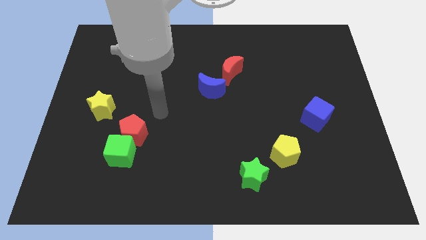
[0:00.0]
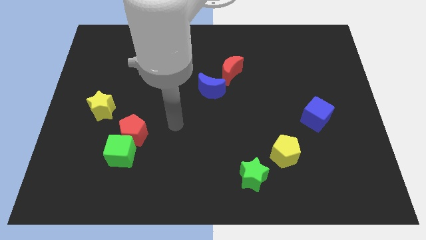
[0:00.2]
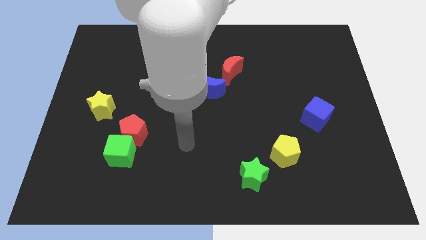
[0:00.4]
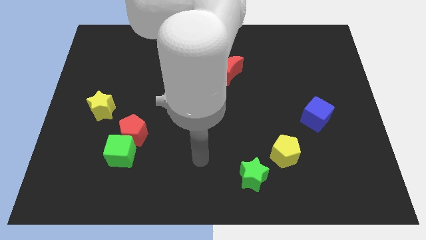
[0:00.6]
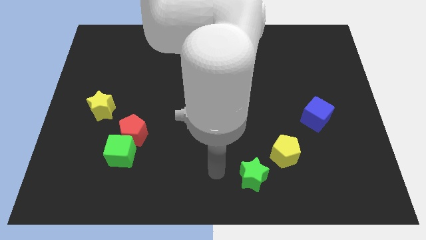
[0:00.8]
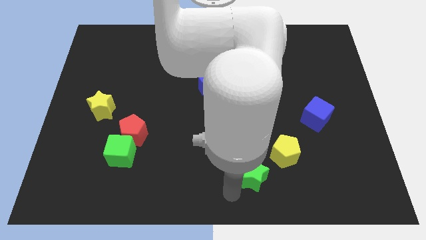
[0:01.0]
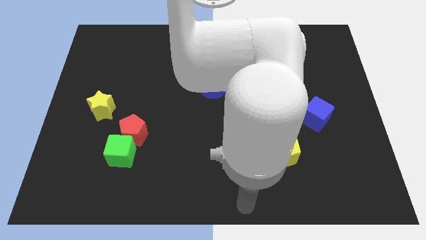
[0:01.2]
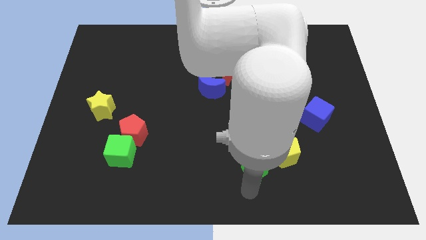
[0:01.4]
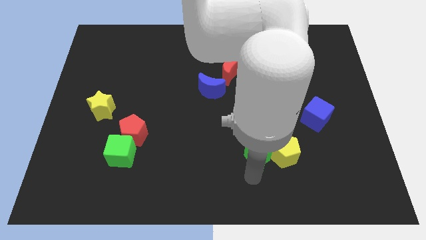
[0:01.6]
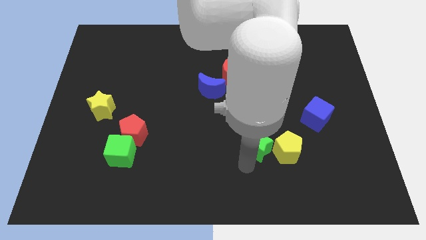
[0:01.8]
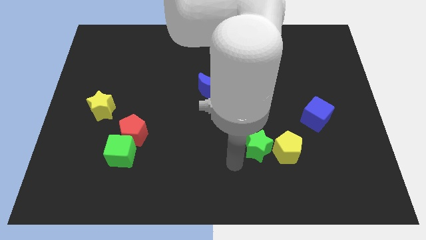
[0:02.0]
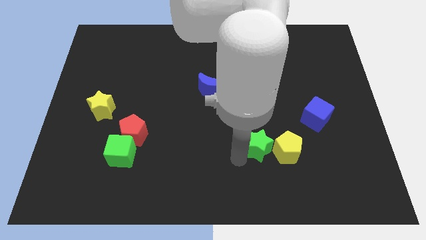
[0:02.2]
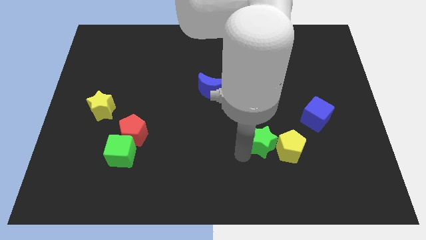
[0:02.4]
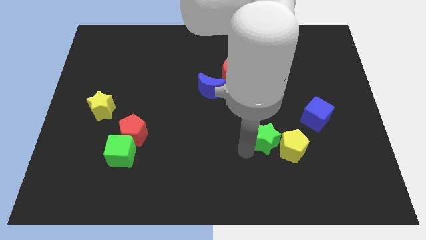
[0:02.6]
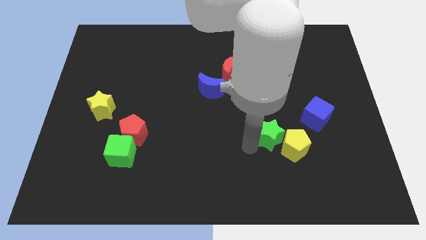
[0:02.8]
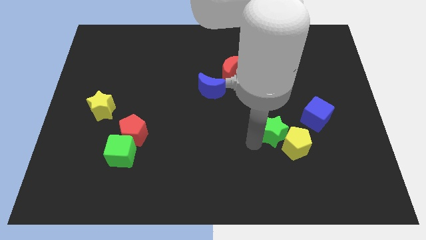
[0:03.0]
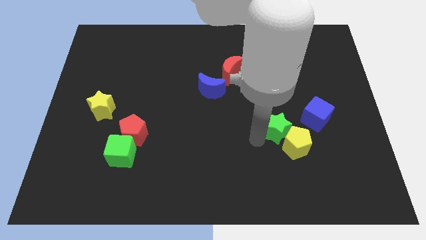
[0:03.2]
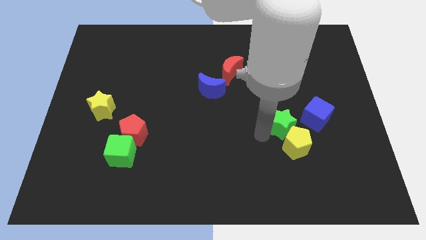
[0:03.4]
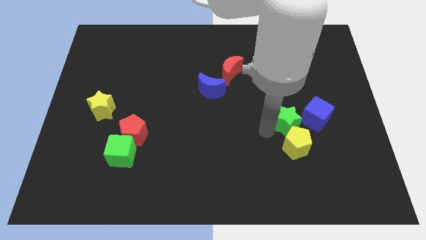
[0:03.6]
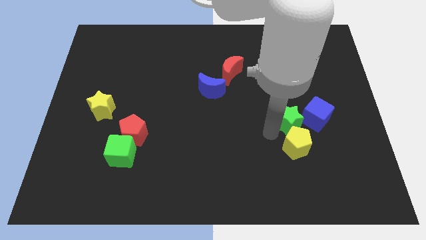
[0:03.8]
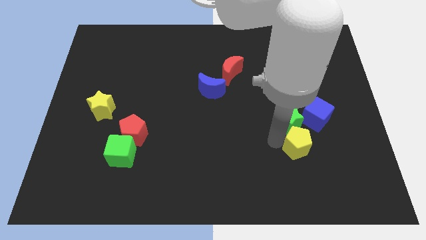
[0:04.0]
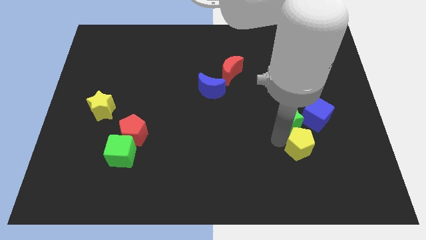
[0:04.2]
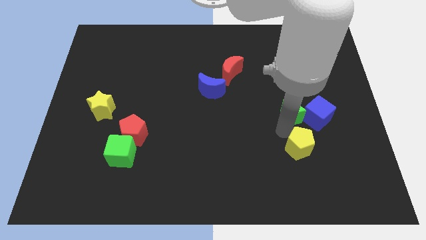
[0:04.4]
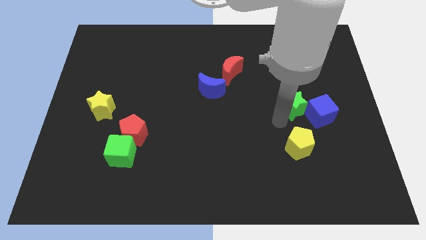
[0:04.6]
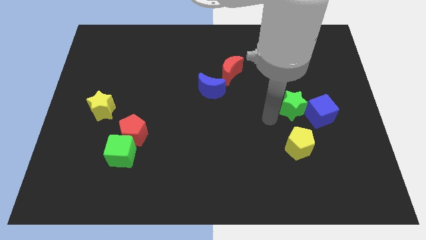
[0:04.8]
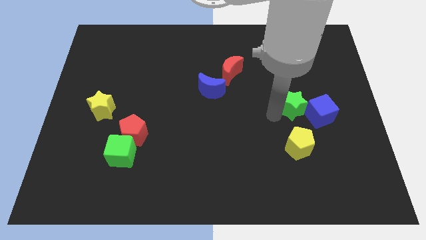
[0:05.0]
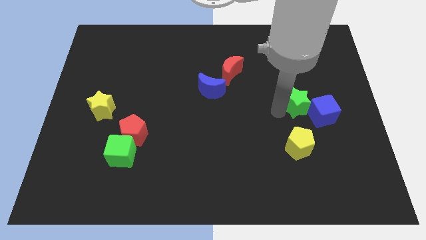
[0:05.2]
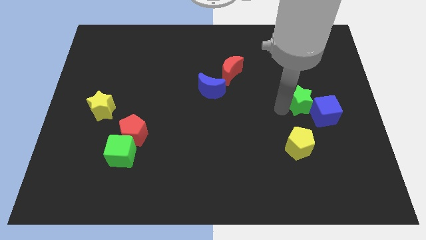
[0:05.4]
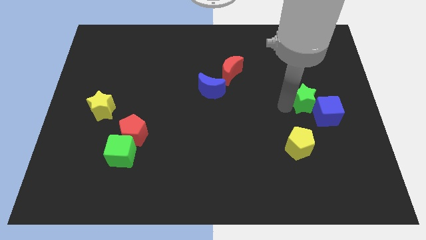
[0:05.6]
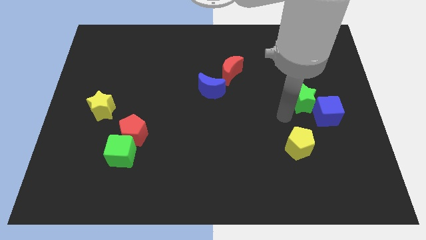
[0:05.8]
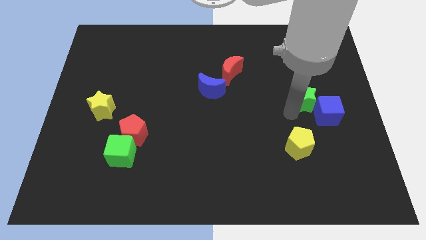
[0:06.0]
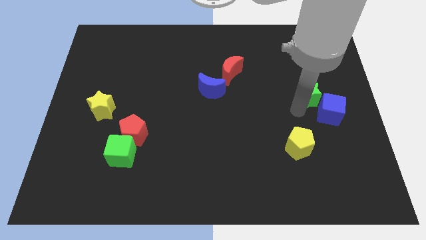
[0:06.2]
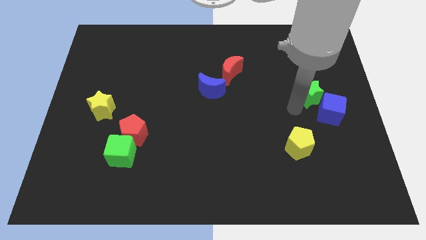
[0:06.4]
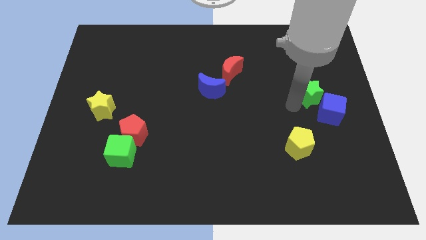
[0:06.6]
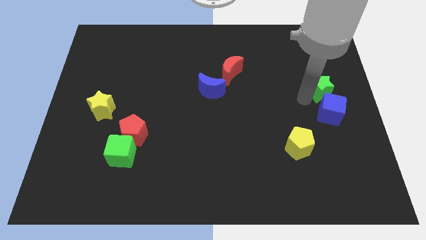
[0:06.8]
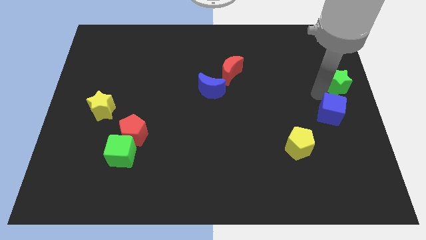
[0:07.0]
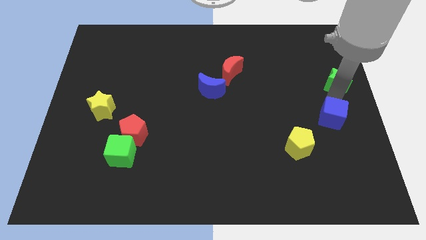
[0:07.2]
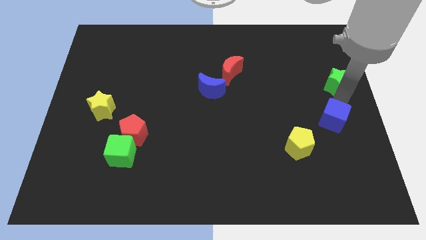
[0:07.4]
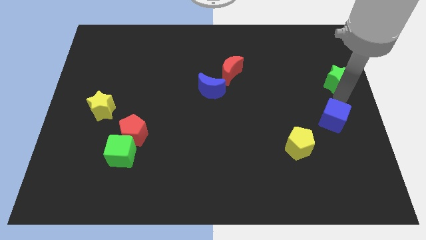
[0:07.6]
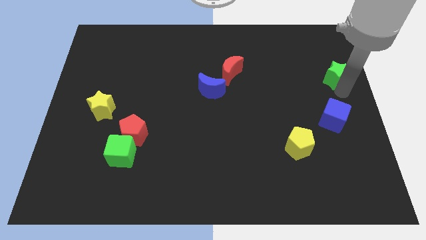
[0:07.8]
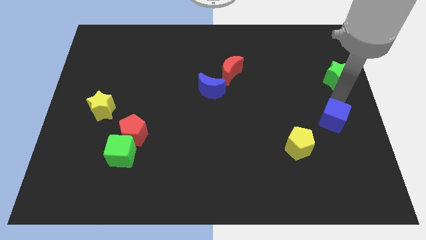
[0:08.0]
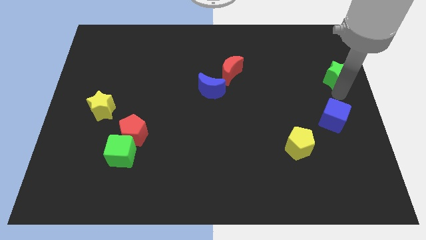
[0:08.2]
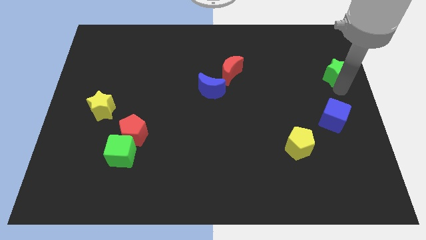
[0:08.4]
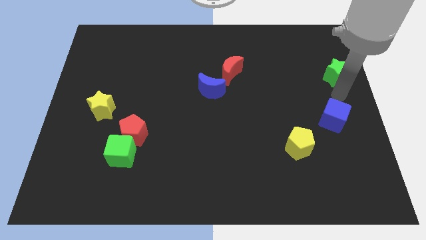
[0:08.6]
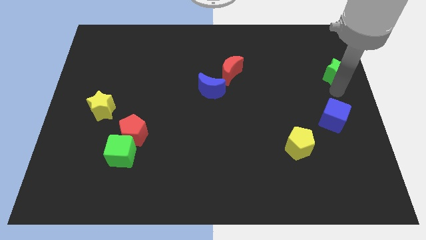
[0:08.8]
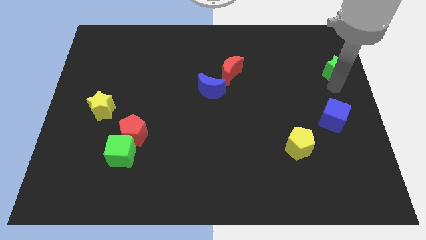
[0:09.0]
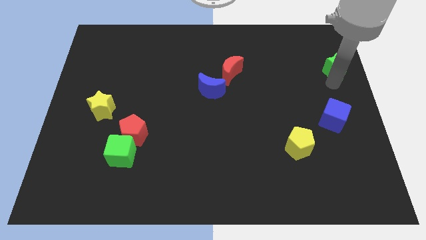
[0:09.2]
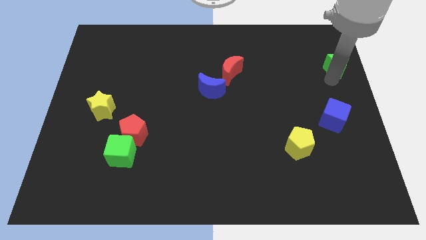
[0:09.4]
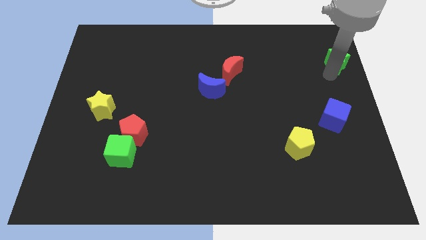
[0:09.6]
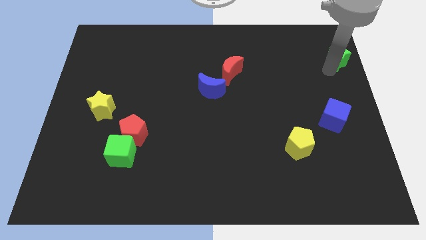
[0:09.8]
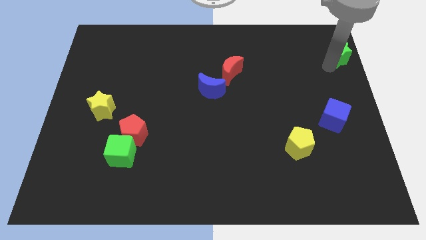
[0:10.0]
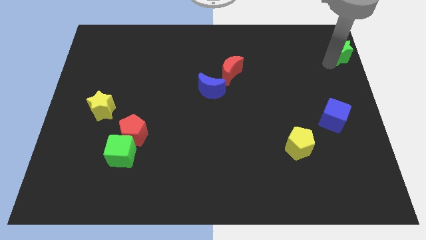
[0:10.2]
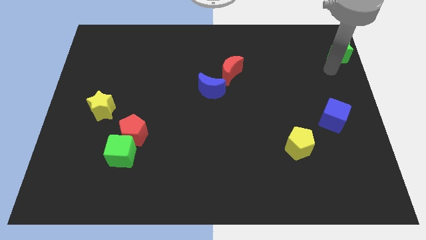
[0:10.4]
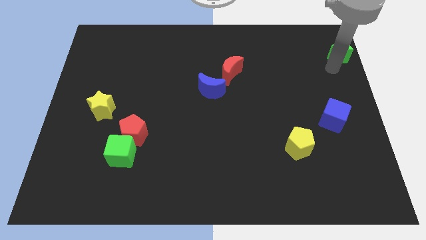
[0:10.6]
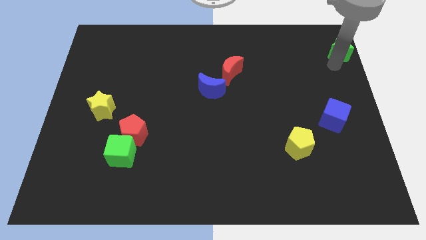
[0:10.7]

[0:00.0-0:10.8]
push the green star to the top right of the board

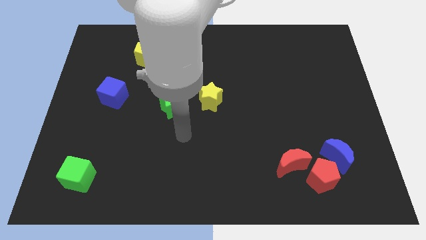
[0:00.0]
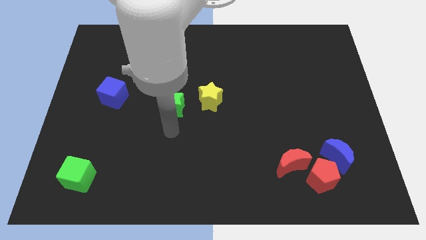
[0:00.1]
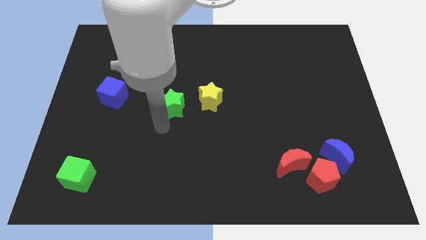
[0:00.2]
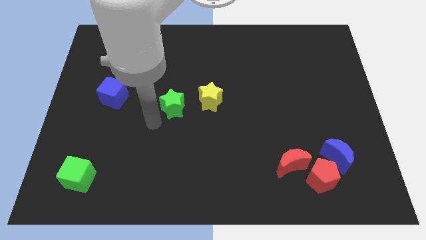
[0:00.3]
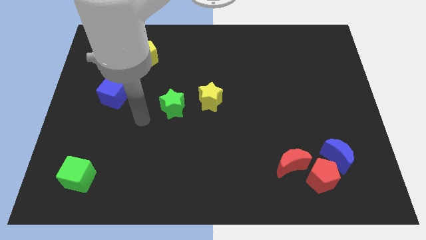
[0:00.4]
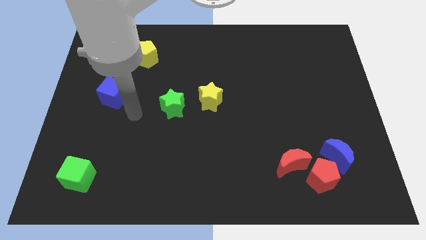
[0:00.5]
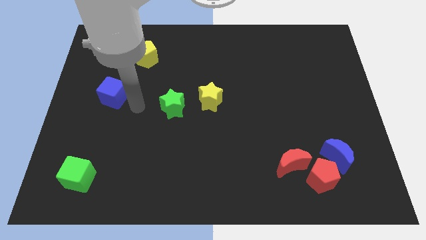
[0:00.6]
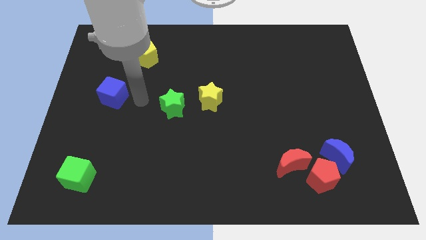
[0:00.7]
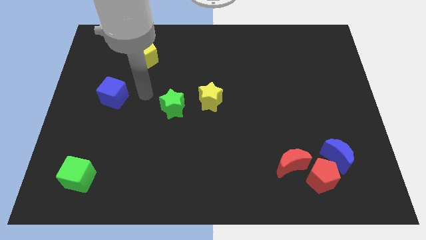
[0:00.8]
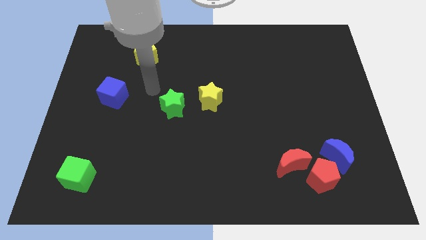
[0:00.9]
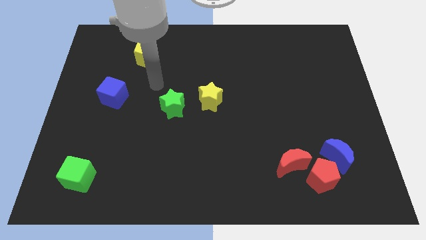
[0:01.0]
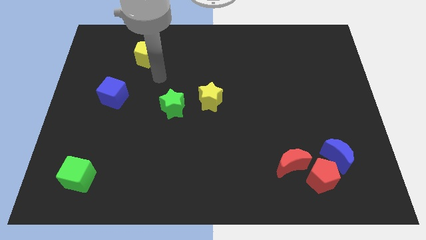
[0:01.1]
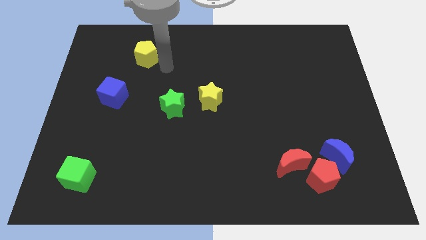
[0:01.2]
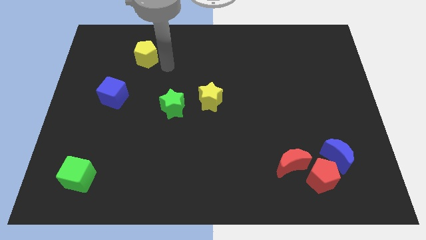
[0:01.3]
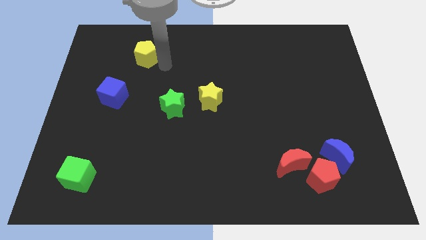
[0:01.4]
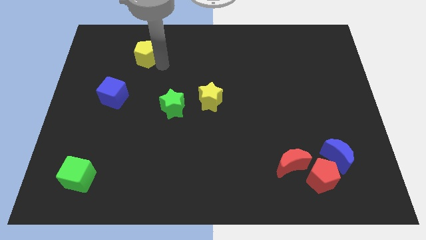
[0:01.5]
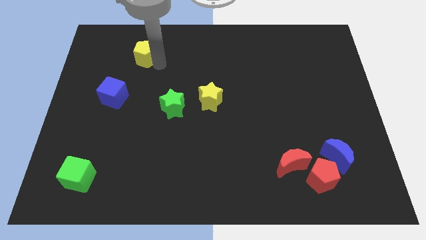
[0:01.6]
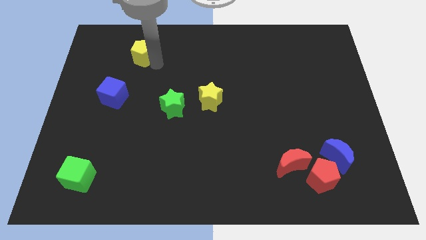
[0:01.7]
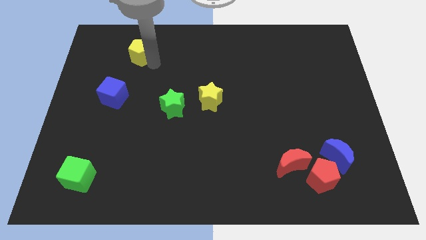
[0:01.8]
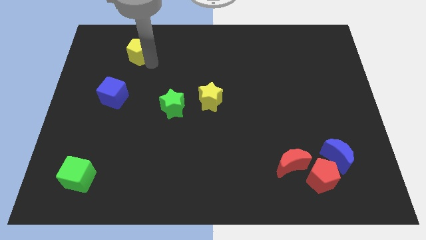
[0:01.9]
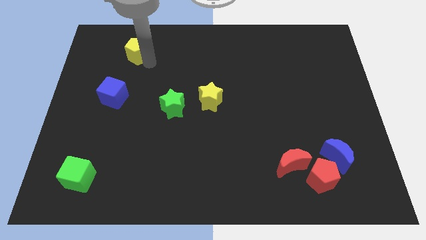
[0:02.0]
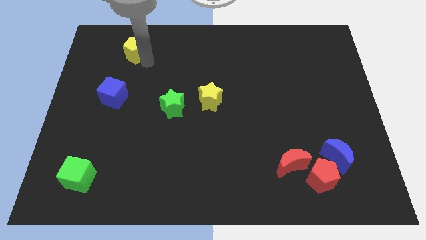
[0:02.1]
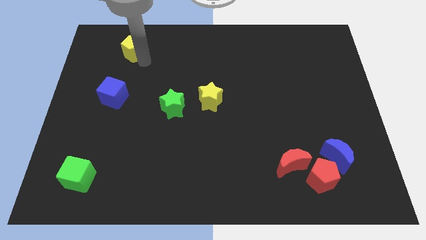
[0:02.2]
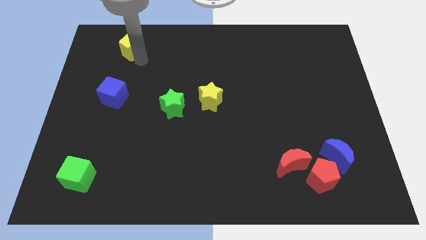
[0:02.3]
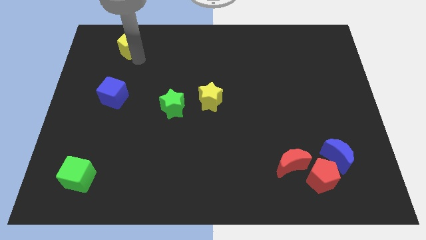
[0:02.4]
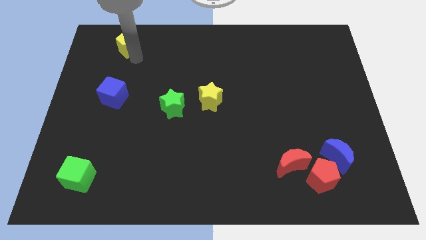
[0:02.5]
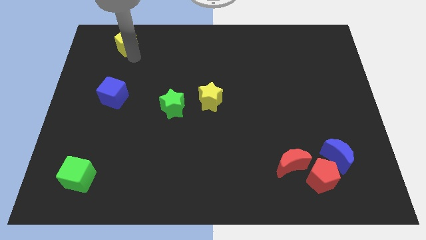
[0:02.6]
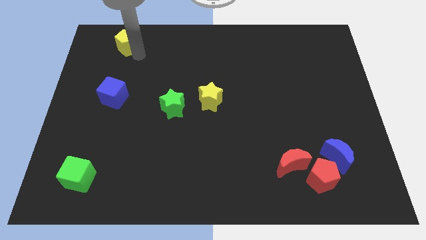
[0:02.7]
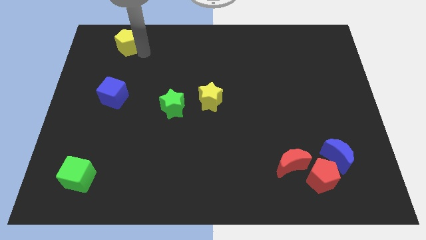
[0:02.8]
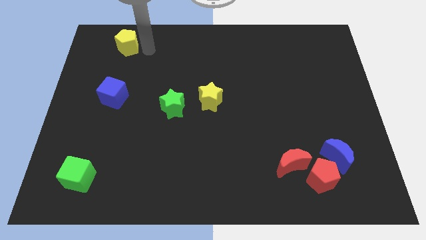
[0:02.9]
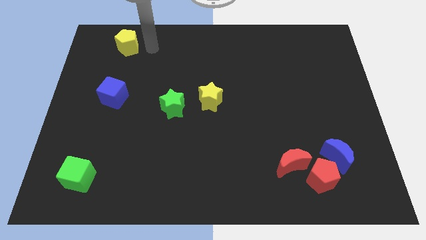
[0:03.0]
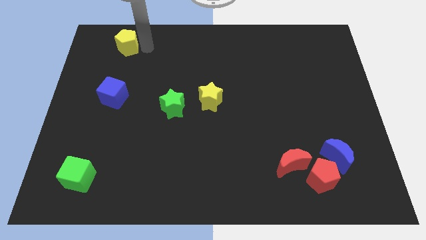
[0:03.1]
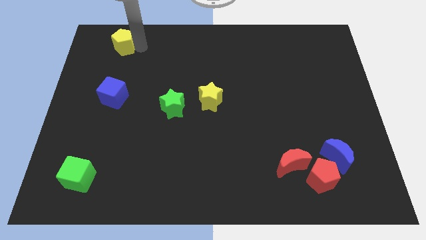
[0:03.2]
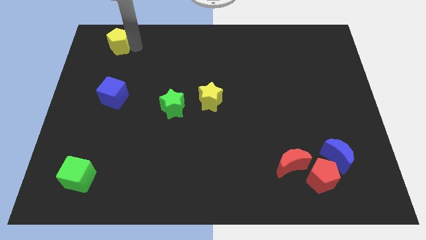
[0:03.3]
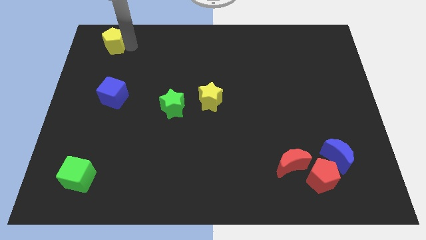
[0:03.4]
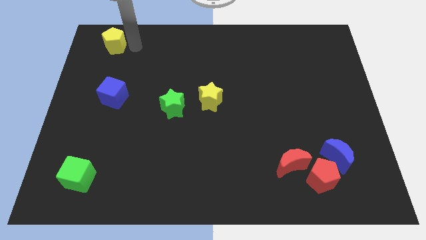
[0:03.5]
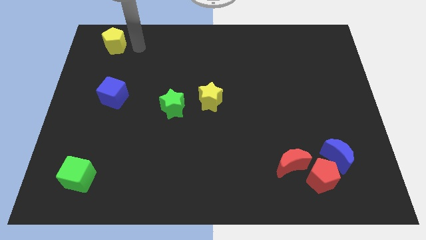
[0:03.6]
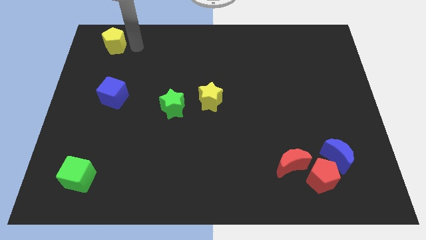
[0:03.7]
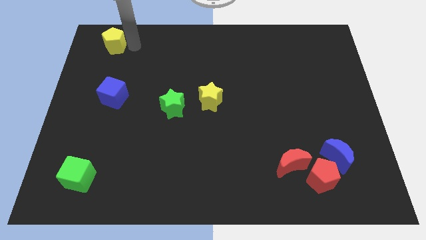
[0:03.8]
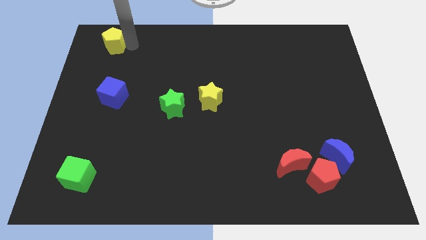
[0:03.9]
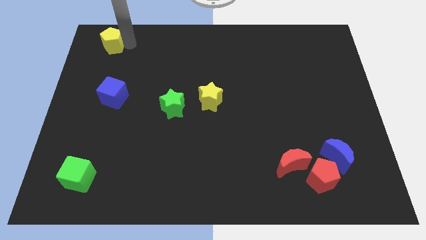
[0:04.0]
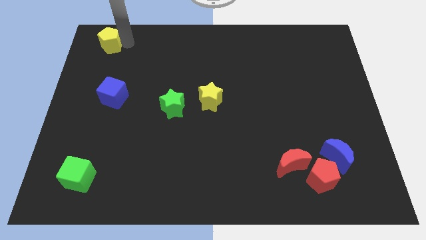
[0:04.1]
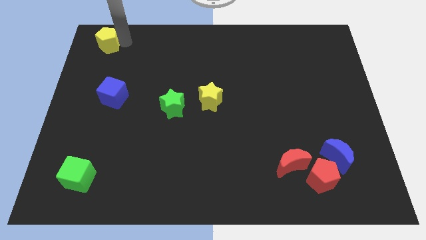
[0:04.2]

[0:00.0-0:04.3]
put the yellow pentagon to the top left corner
